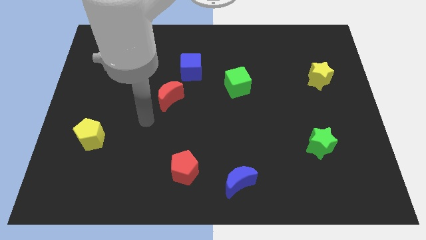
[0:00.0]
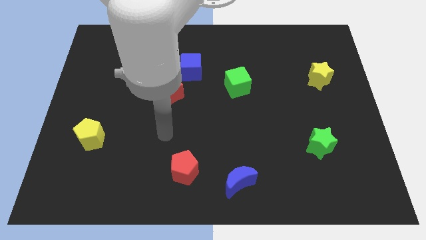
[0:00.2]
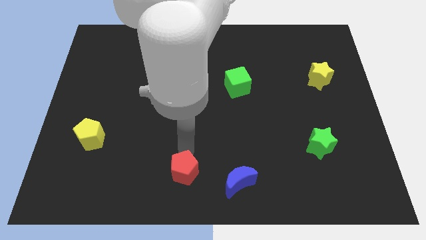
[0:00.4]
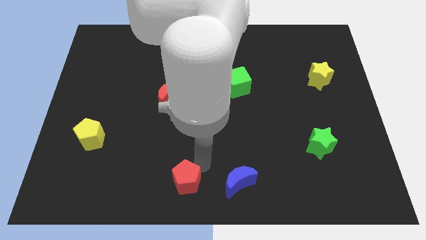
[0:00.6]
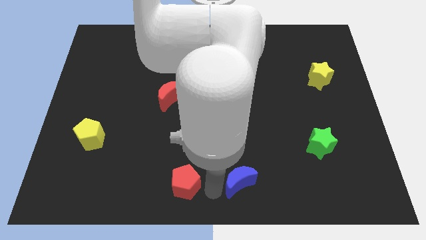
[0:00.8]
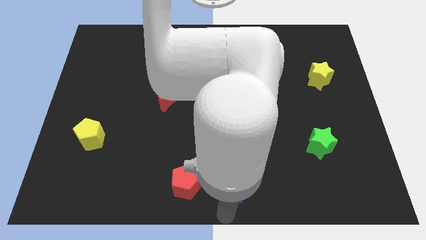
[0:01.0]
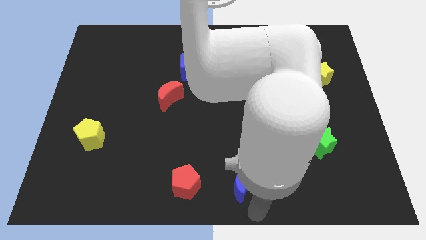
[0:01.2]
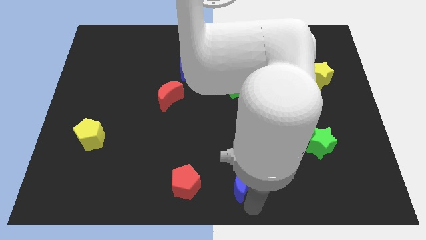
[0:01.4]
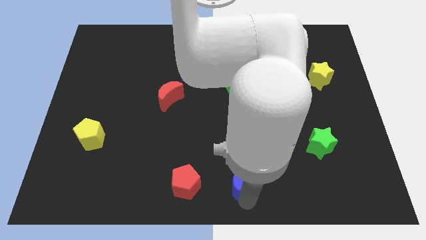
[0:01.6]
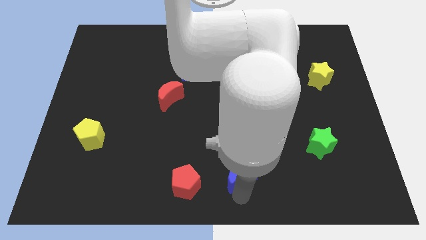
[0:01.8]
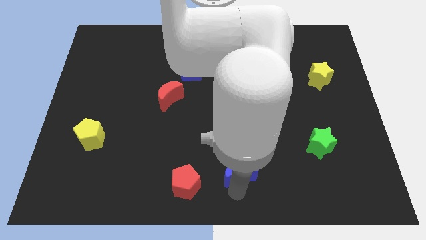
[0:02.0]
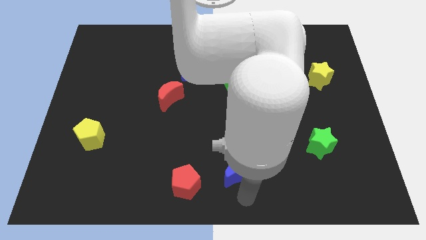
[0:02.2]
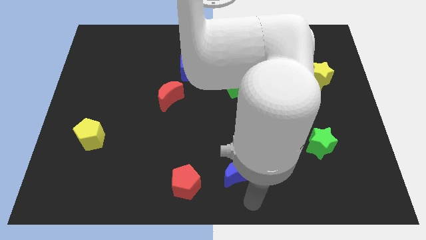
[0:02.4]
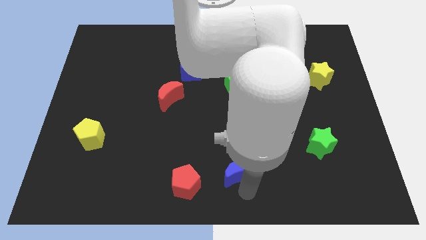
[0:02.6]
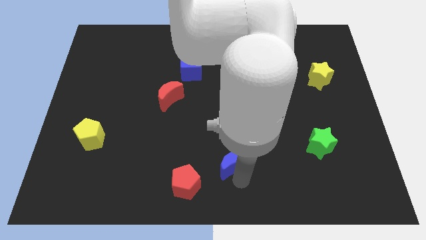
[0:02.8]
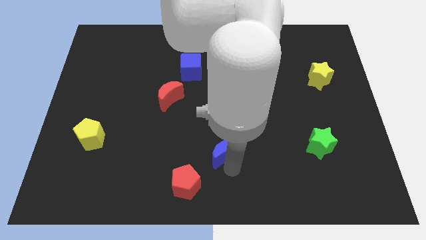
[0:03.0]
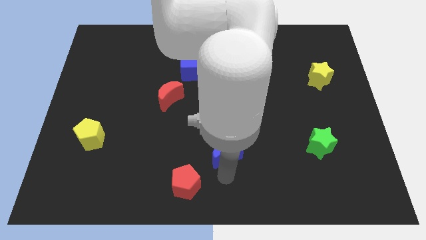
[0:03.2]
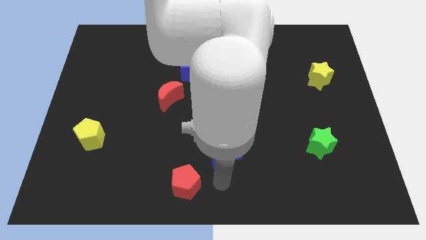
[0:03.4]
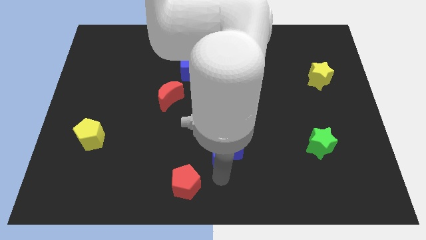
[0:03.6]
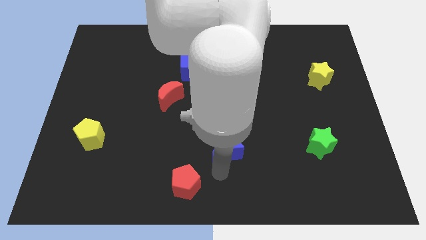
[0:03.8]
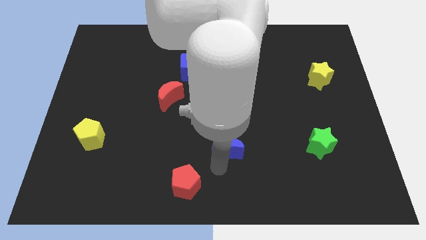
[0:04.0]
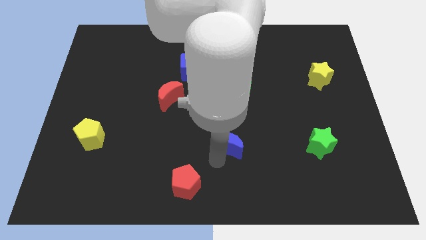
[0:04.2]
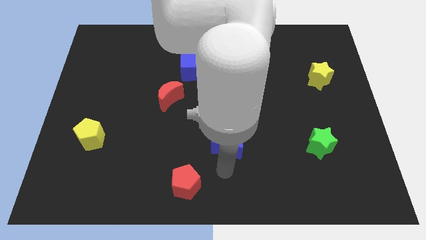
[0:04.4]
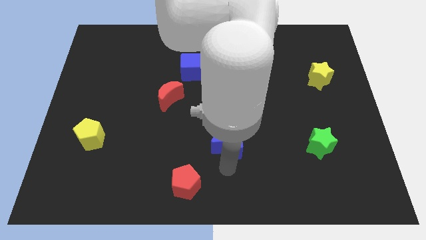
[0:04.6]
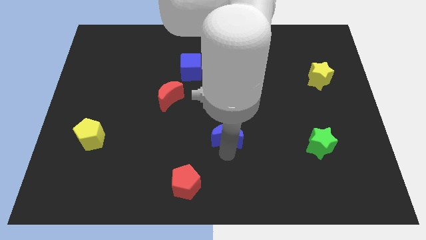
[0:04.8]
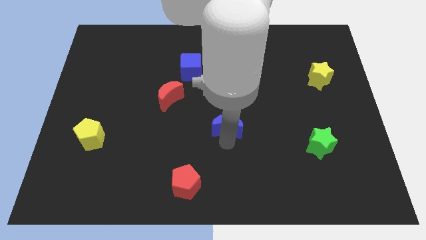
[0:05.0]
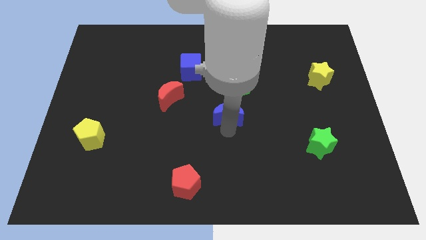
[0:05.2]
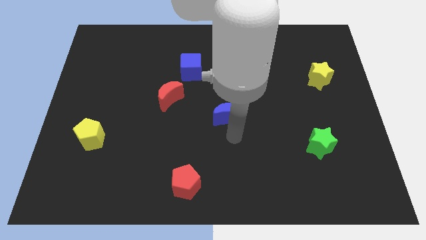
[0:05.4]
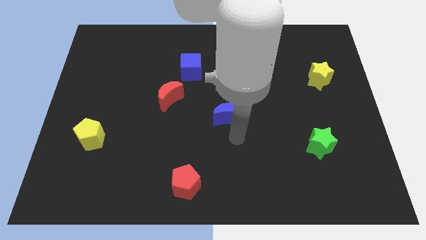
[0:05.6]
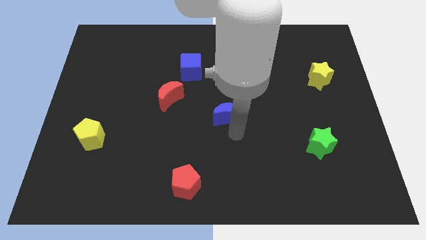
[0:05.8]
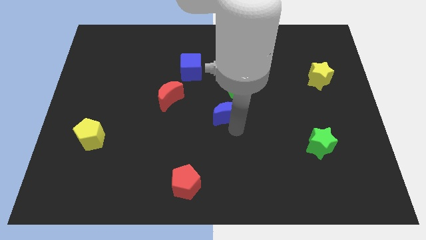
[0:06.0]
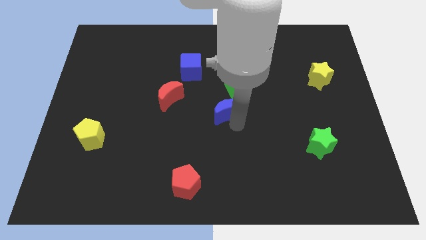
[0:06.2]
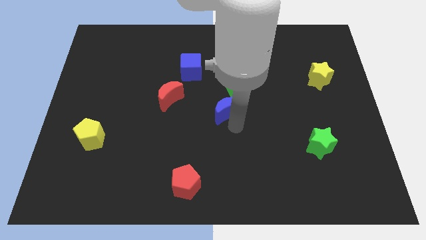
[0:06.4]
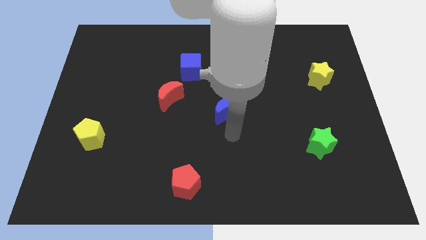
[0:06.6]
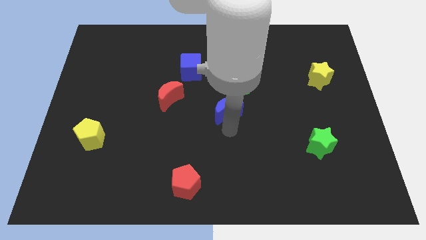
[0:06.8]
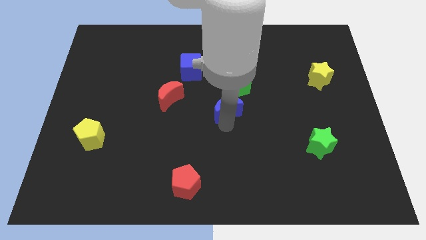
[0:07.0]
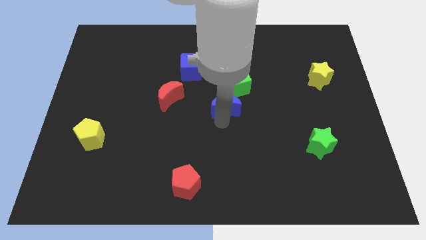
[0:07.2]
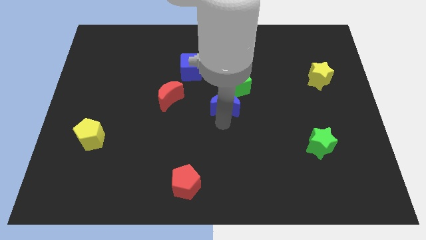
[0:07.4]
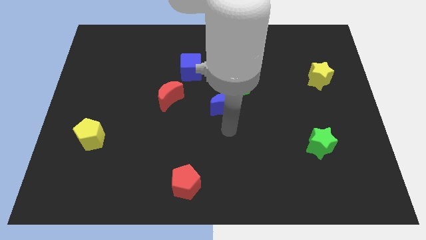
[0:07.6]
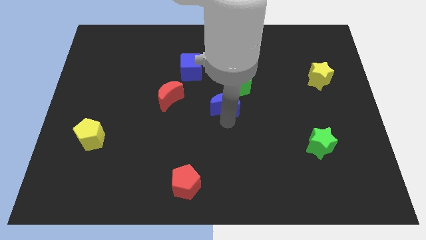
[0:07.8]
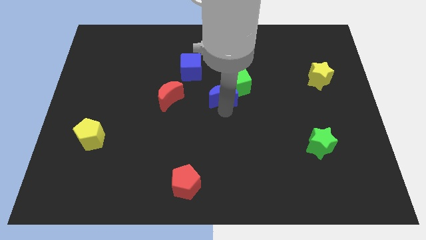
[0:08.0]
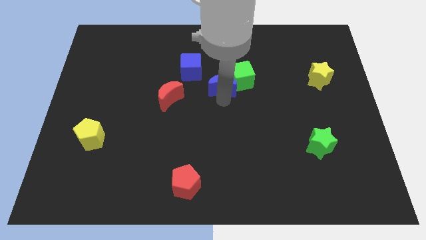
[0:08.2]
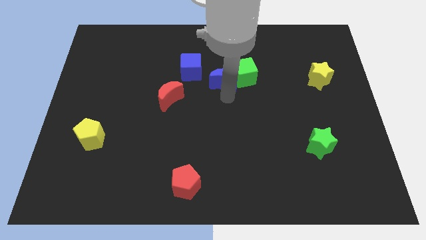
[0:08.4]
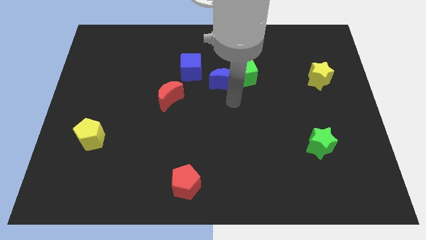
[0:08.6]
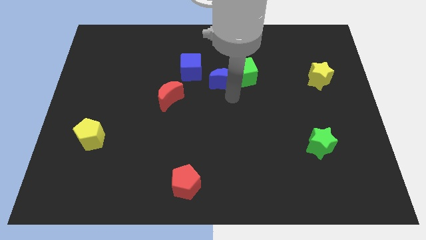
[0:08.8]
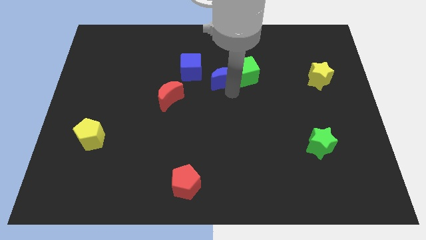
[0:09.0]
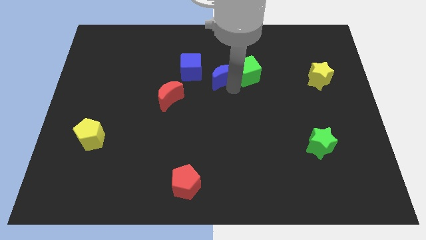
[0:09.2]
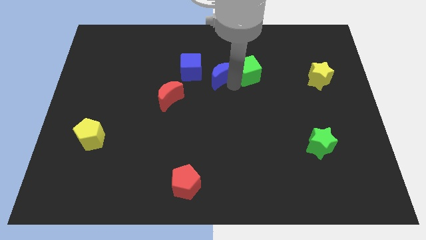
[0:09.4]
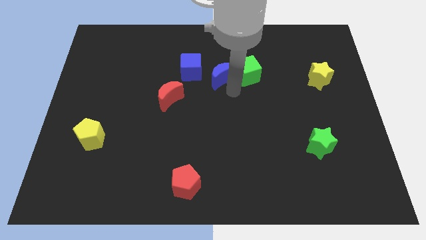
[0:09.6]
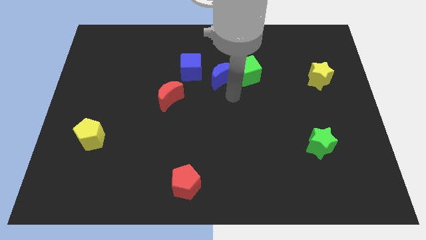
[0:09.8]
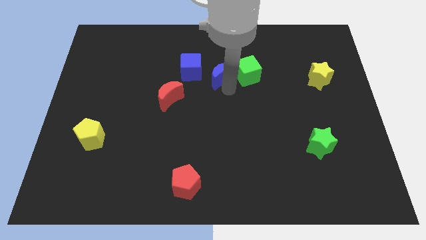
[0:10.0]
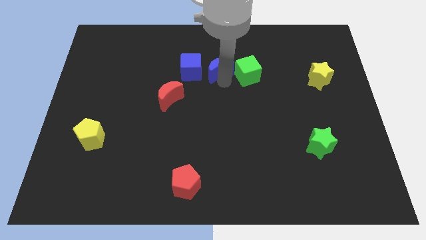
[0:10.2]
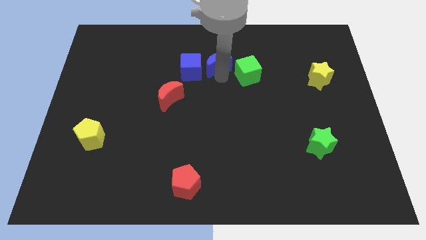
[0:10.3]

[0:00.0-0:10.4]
slide the blue moon to the top right of the blue cube

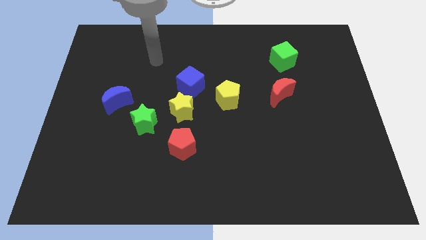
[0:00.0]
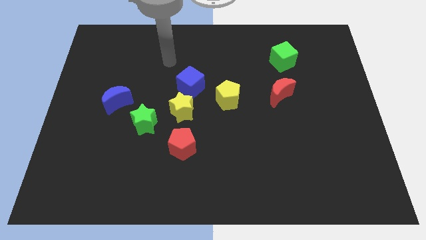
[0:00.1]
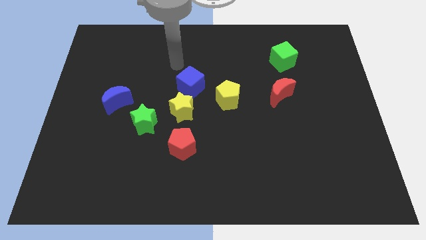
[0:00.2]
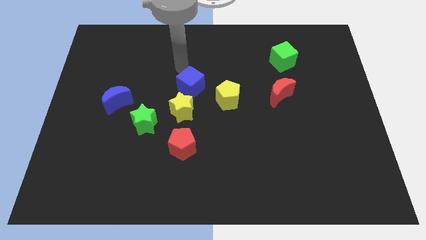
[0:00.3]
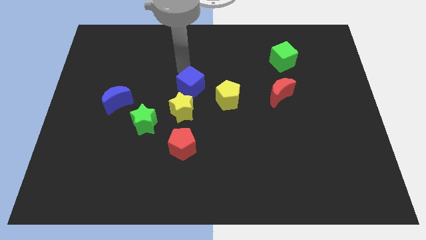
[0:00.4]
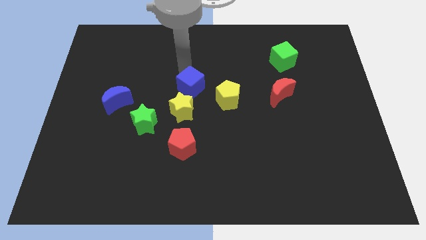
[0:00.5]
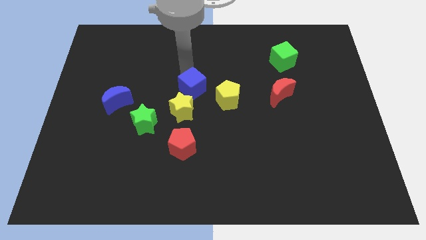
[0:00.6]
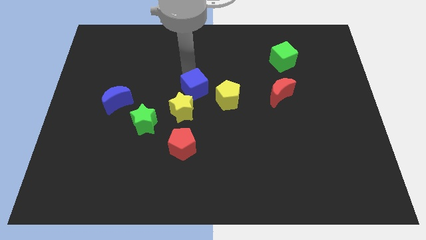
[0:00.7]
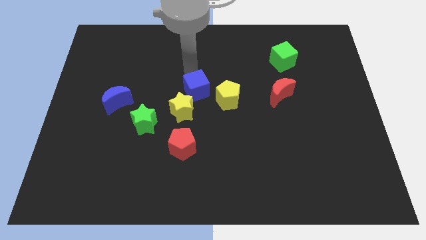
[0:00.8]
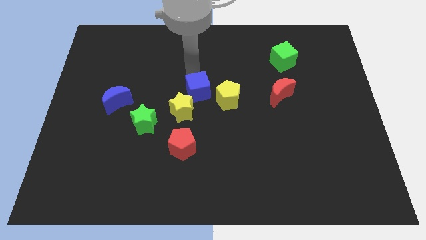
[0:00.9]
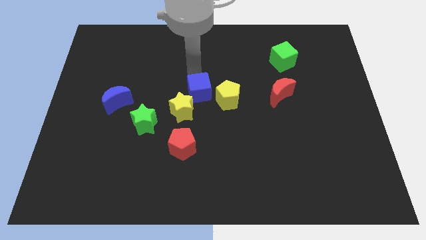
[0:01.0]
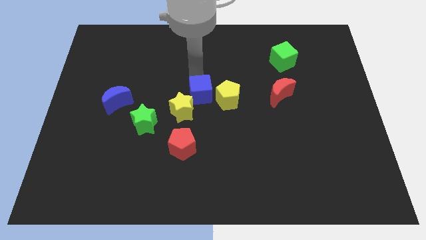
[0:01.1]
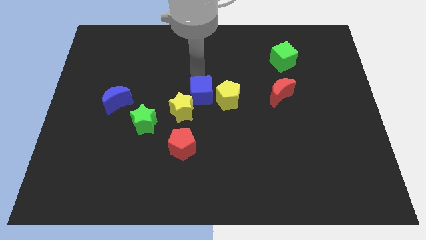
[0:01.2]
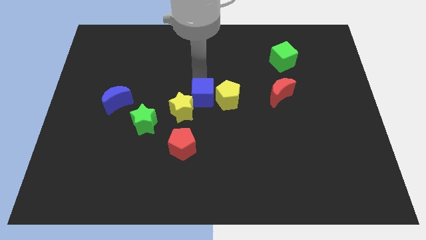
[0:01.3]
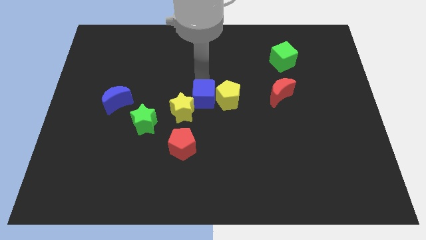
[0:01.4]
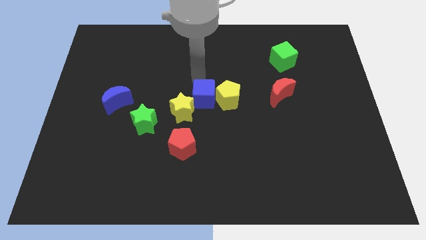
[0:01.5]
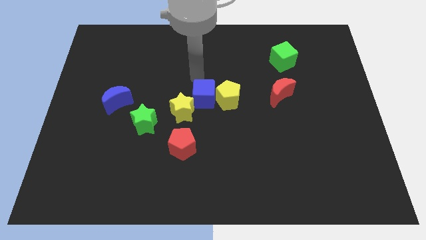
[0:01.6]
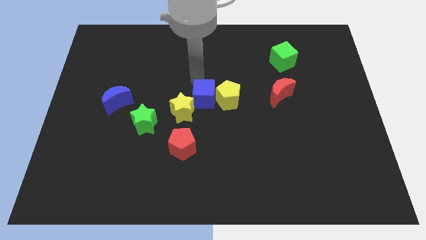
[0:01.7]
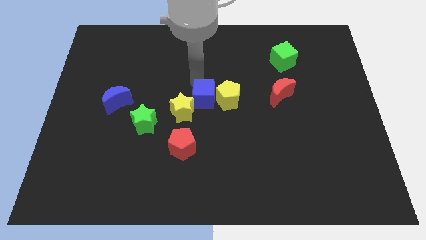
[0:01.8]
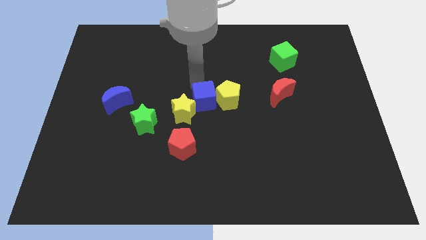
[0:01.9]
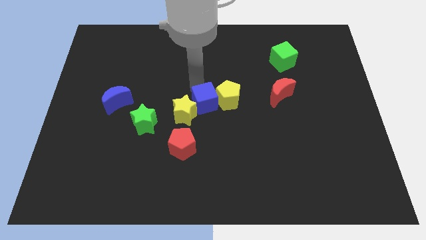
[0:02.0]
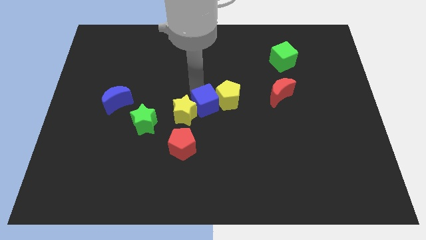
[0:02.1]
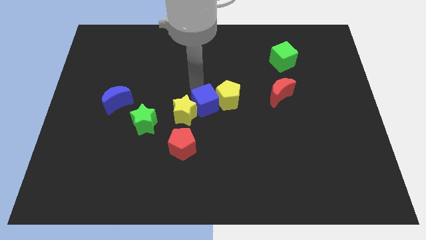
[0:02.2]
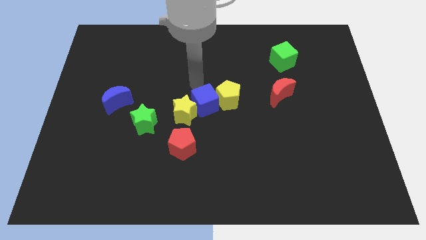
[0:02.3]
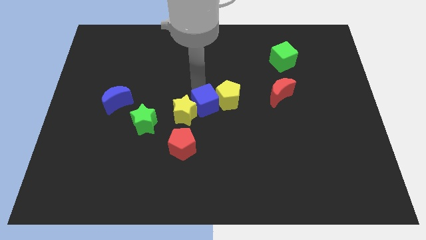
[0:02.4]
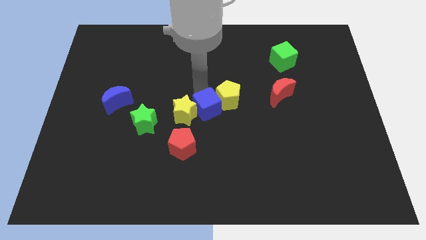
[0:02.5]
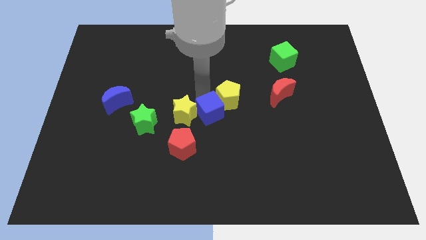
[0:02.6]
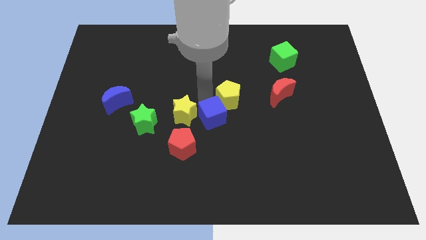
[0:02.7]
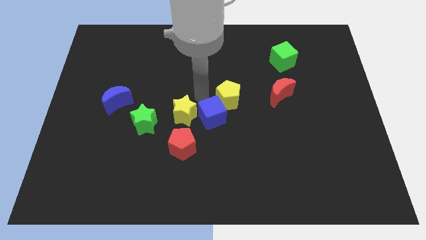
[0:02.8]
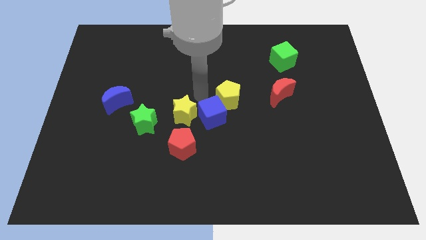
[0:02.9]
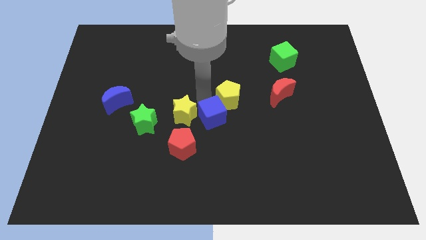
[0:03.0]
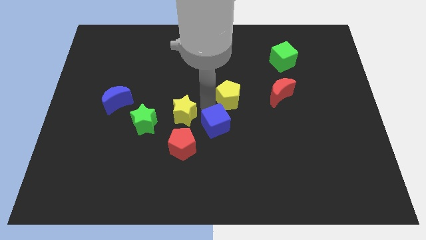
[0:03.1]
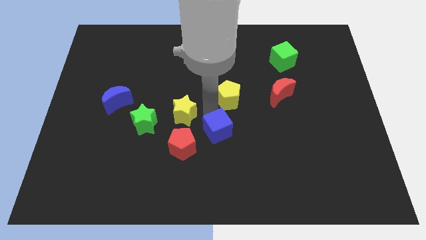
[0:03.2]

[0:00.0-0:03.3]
push the blue cube to the right side of the red pentagon
